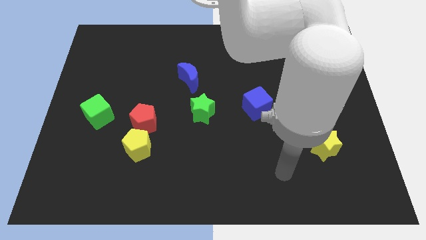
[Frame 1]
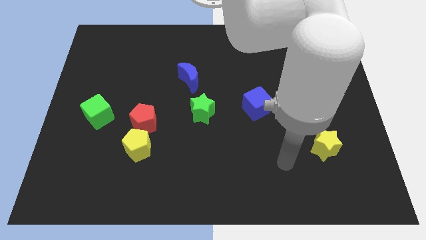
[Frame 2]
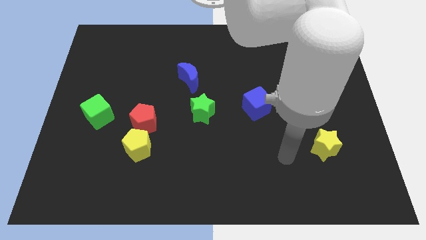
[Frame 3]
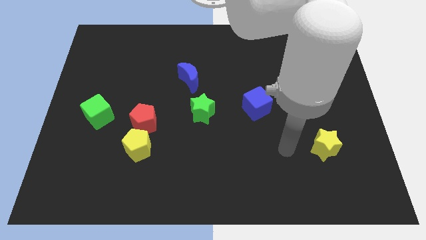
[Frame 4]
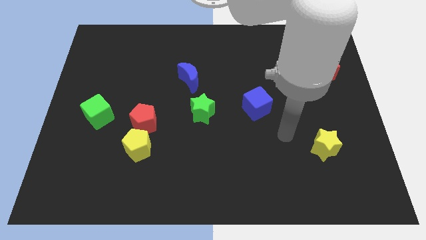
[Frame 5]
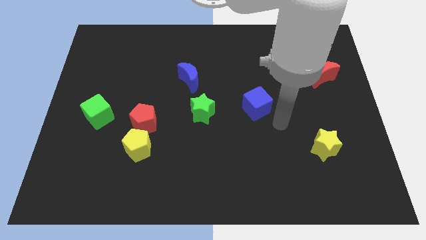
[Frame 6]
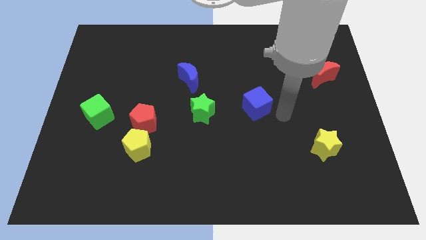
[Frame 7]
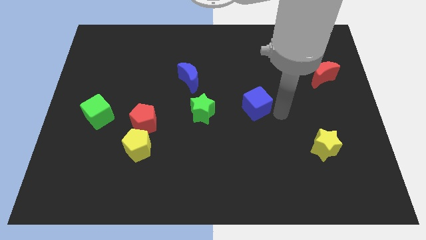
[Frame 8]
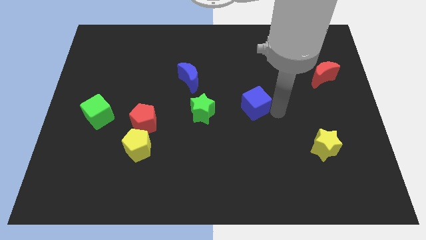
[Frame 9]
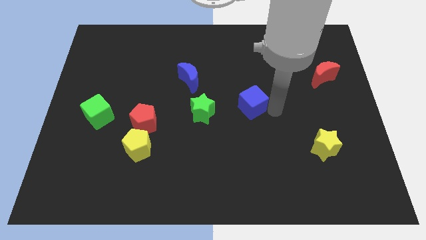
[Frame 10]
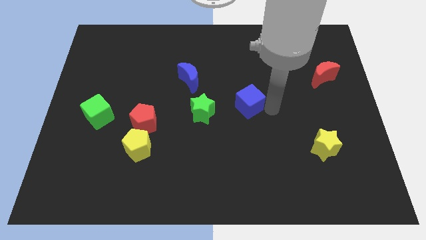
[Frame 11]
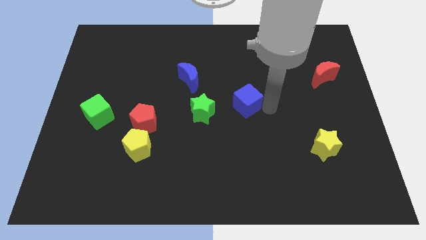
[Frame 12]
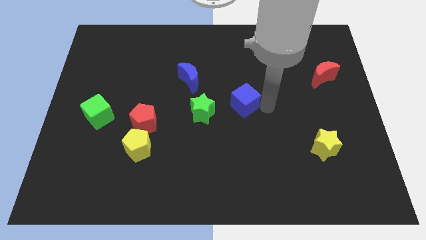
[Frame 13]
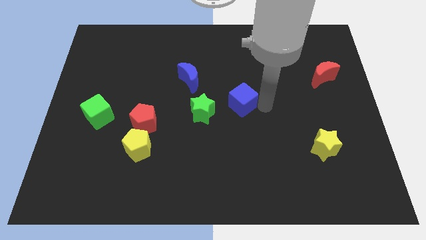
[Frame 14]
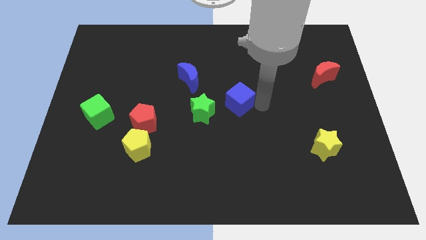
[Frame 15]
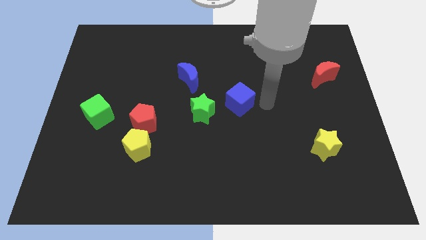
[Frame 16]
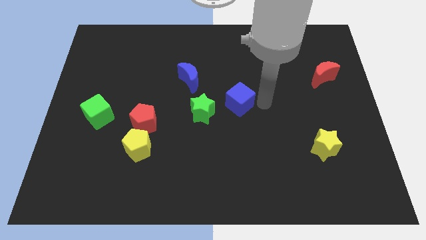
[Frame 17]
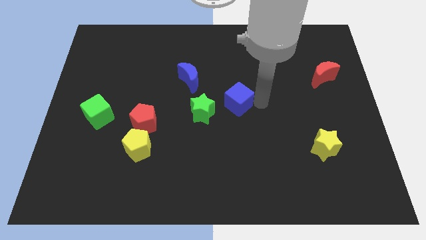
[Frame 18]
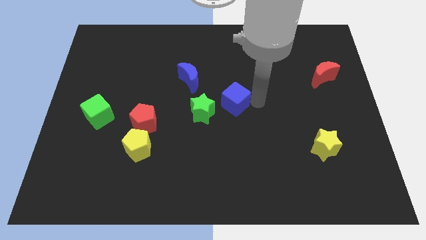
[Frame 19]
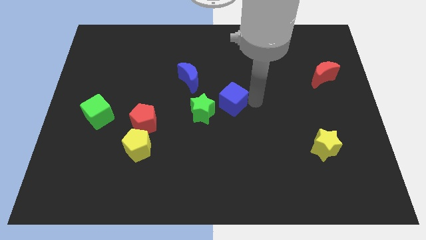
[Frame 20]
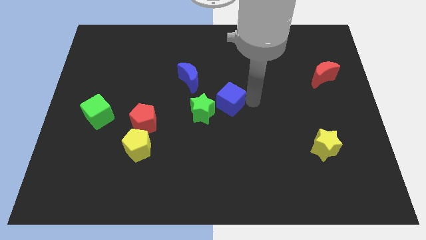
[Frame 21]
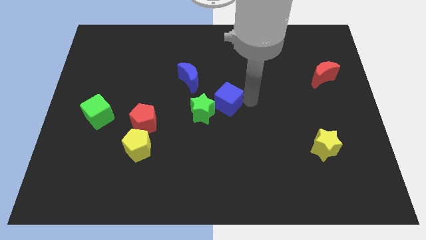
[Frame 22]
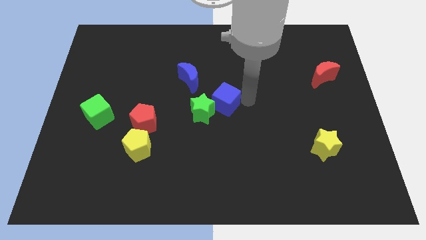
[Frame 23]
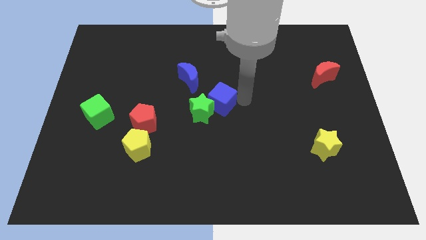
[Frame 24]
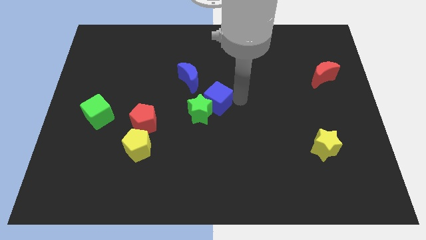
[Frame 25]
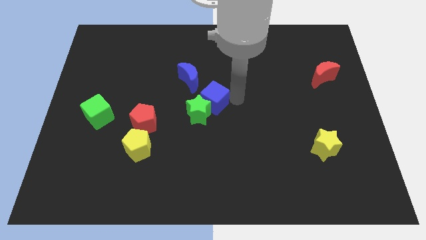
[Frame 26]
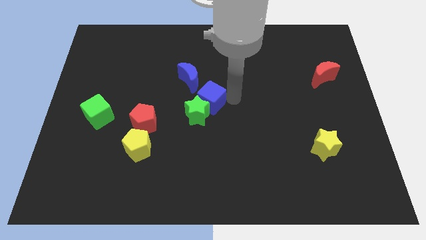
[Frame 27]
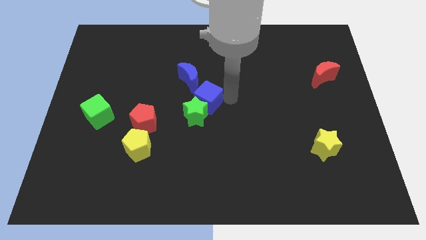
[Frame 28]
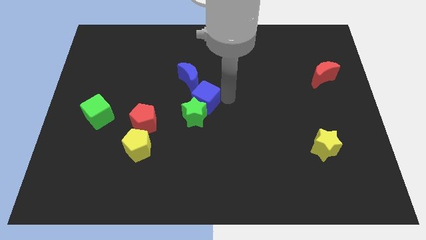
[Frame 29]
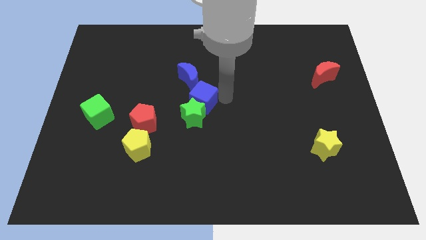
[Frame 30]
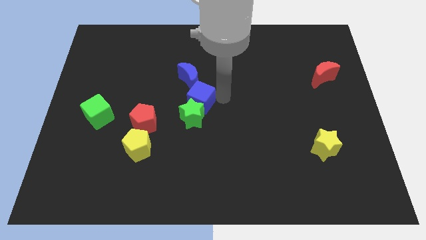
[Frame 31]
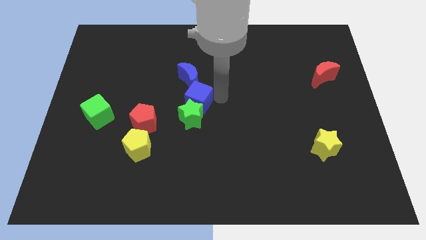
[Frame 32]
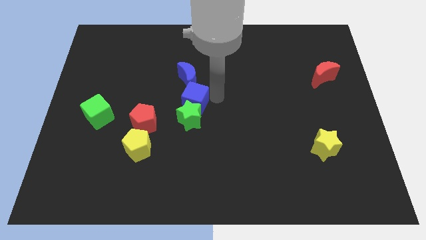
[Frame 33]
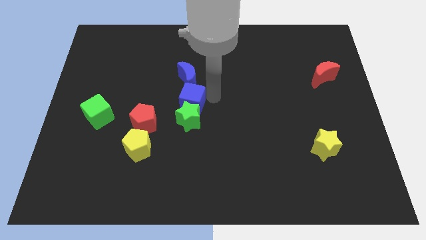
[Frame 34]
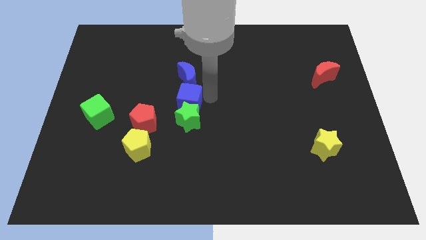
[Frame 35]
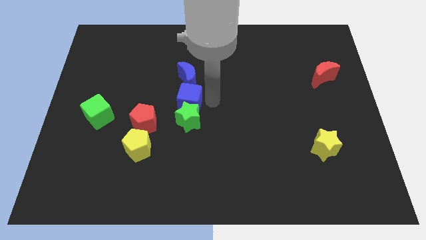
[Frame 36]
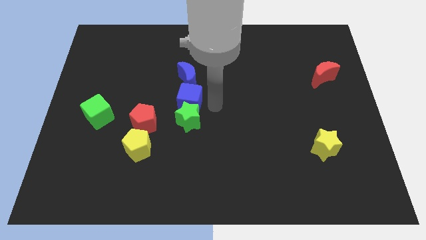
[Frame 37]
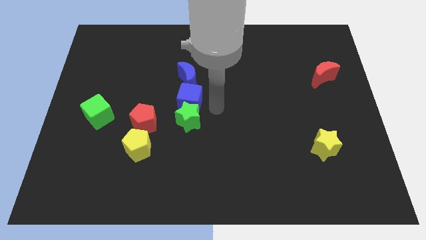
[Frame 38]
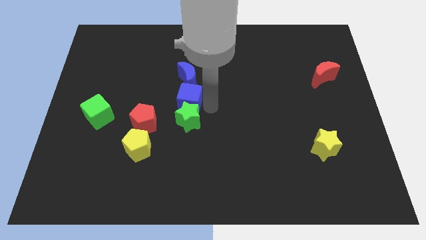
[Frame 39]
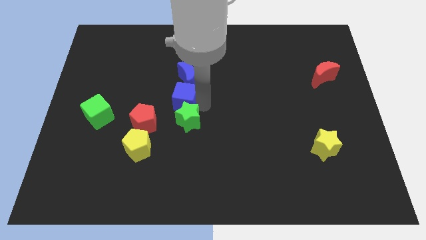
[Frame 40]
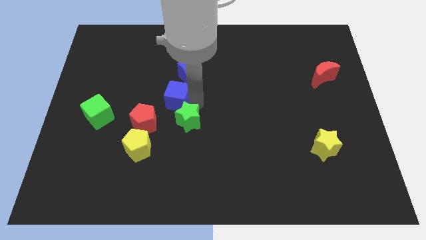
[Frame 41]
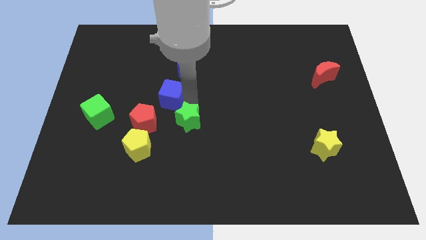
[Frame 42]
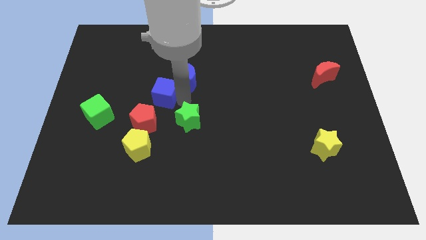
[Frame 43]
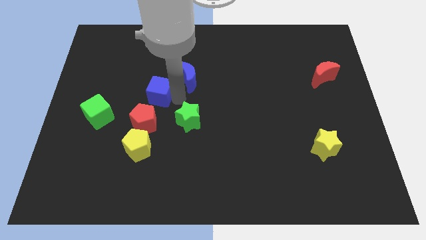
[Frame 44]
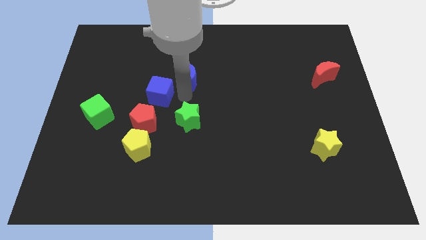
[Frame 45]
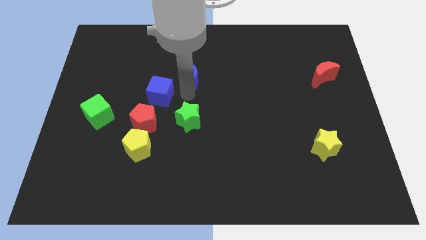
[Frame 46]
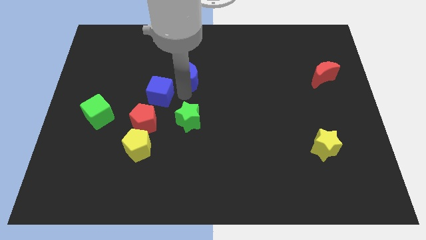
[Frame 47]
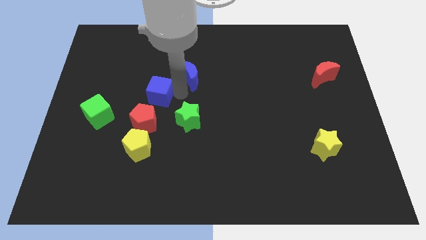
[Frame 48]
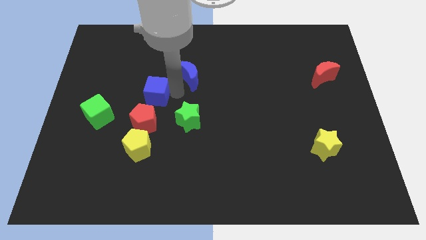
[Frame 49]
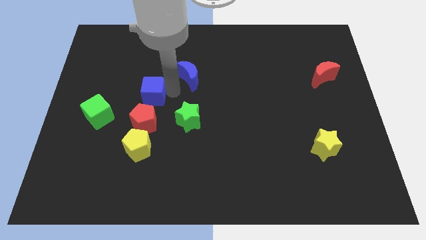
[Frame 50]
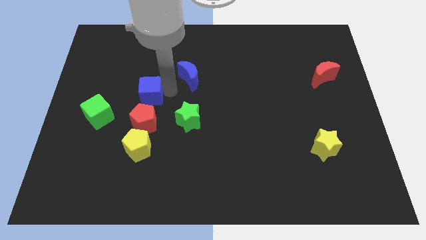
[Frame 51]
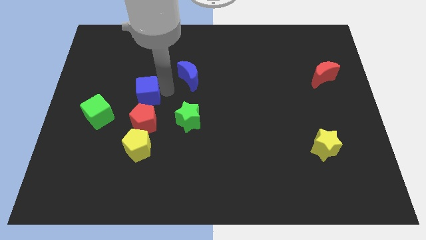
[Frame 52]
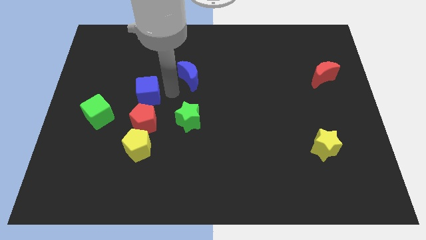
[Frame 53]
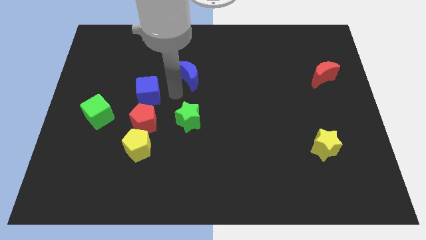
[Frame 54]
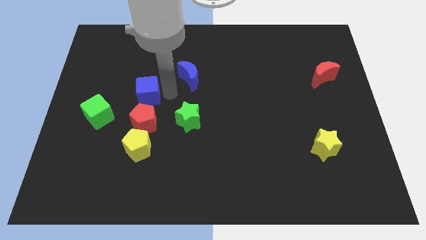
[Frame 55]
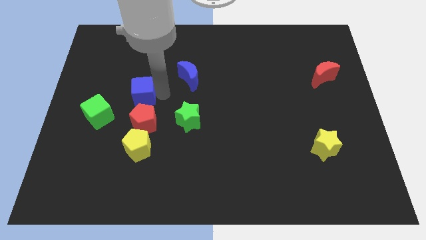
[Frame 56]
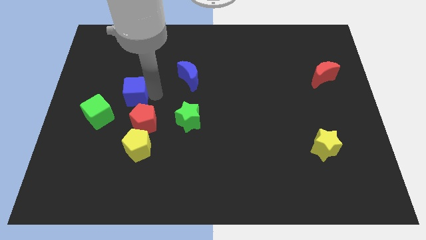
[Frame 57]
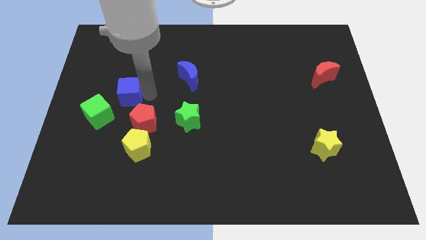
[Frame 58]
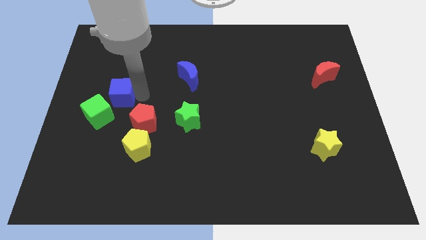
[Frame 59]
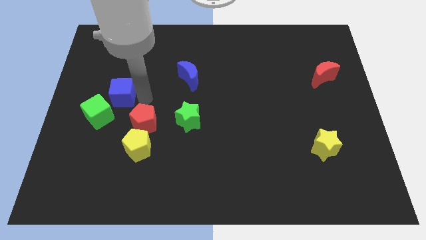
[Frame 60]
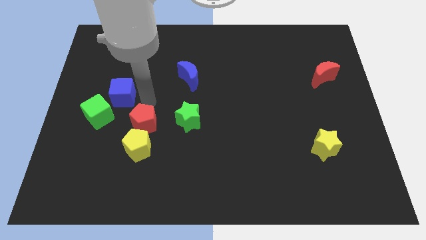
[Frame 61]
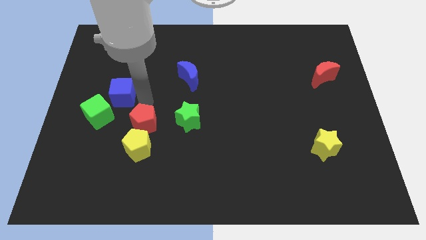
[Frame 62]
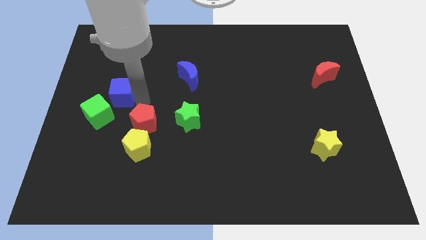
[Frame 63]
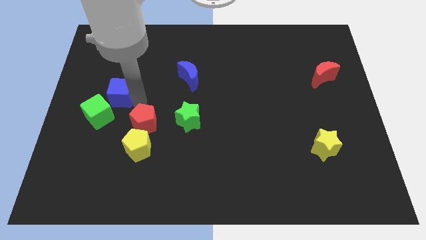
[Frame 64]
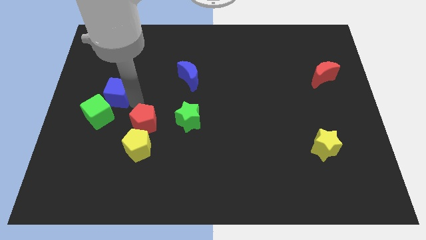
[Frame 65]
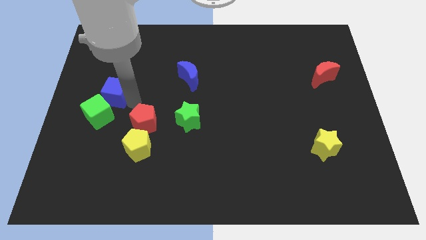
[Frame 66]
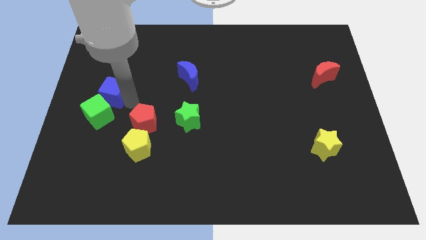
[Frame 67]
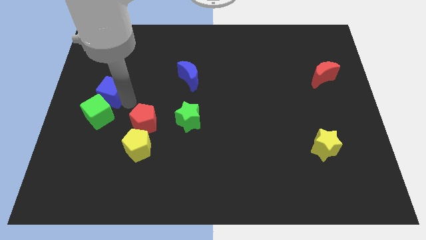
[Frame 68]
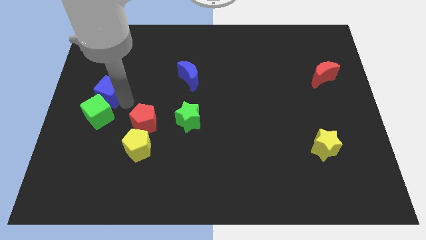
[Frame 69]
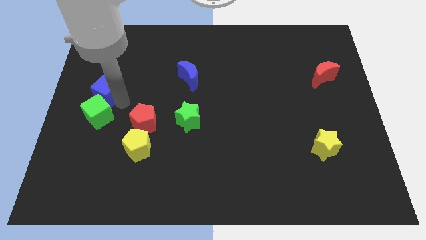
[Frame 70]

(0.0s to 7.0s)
move the blue cube to the left side of the board
